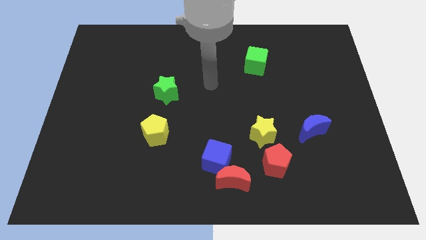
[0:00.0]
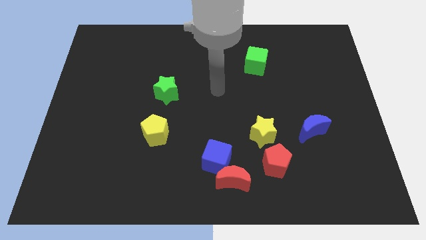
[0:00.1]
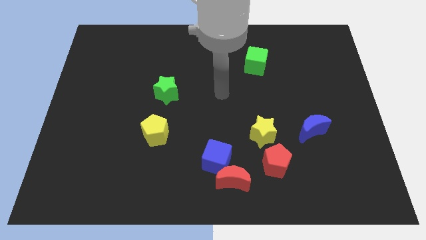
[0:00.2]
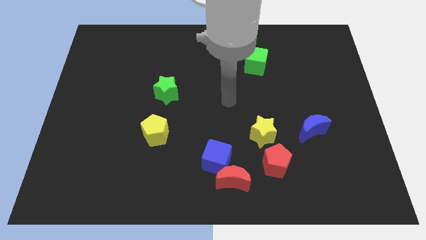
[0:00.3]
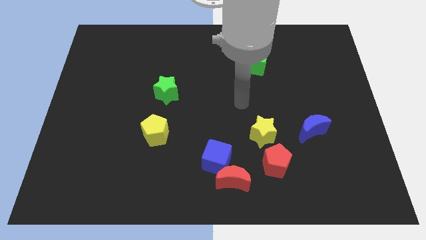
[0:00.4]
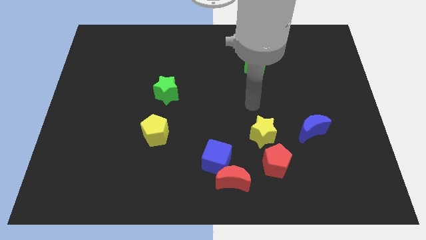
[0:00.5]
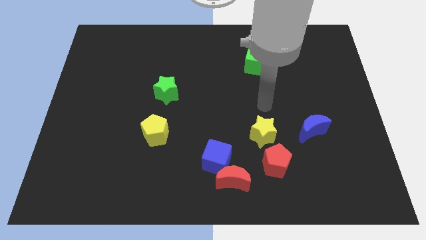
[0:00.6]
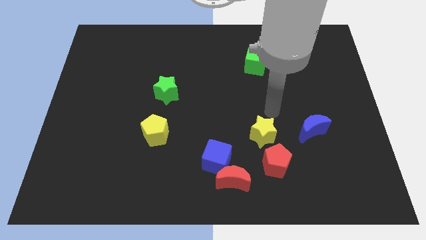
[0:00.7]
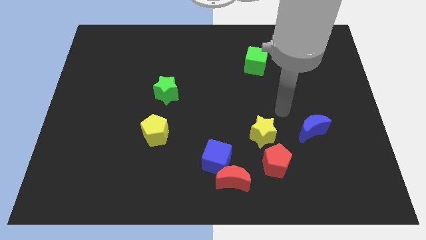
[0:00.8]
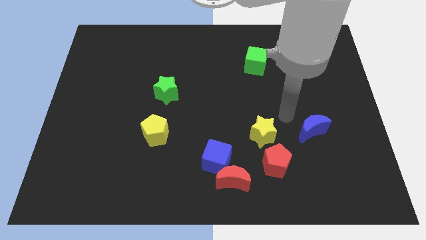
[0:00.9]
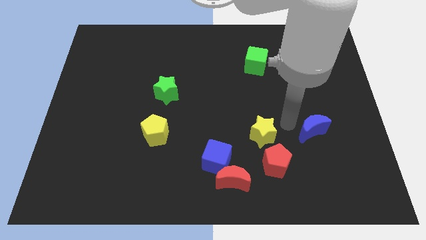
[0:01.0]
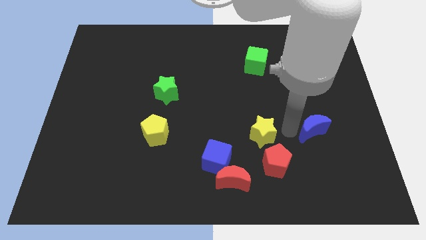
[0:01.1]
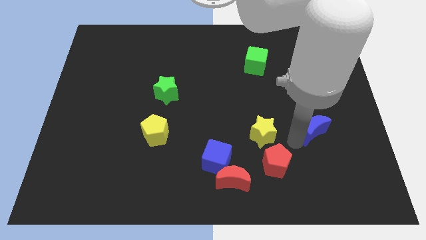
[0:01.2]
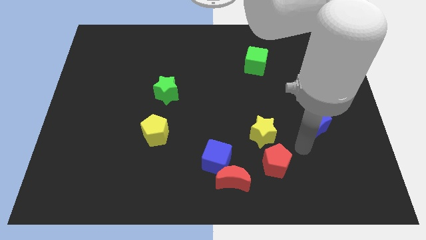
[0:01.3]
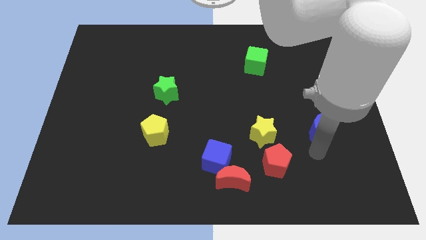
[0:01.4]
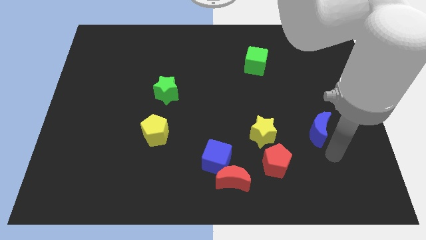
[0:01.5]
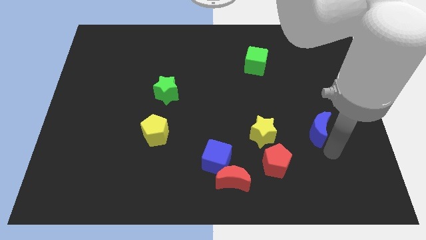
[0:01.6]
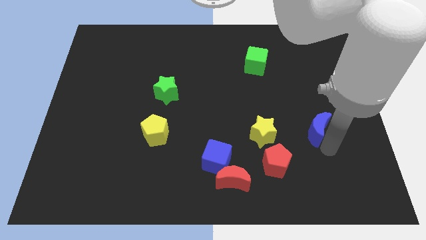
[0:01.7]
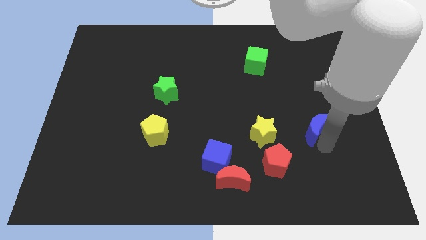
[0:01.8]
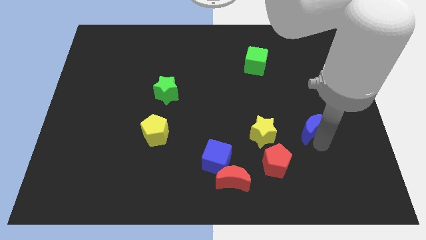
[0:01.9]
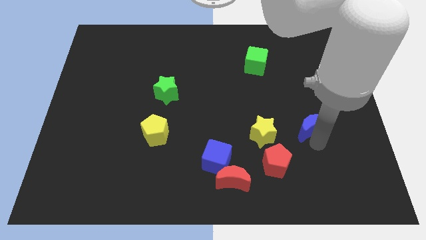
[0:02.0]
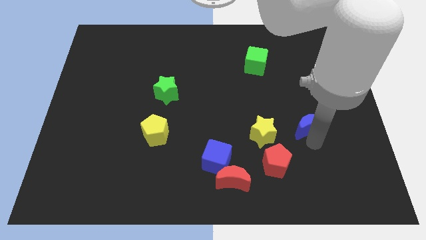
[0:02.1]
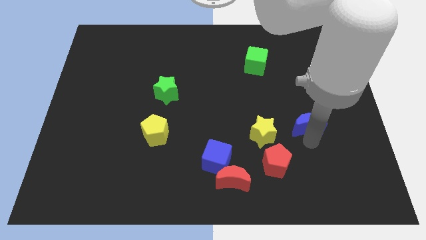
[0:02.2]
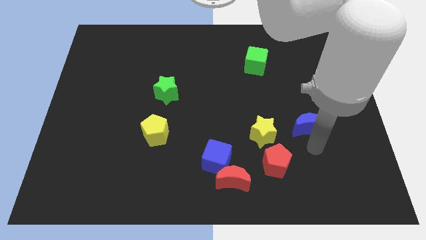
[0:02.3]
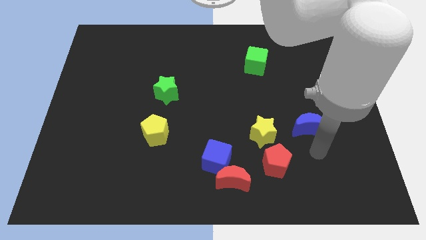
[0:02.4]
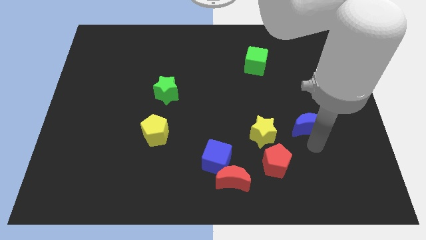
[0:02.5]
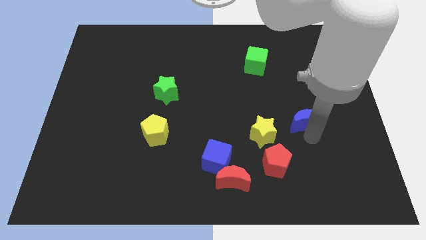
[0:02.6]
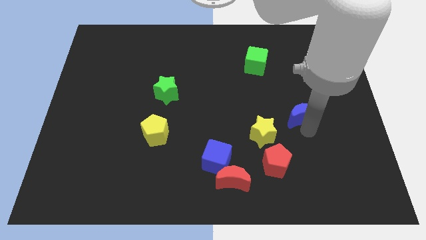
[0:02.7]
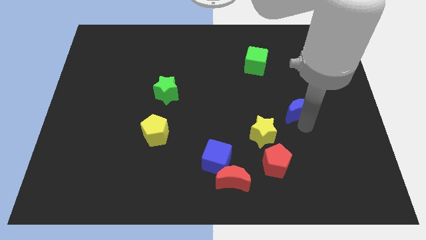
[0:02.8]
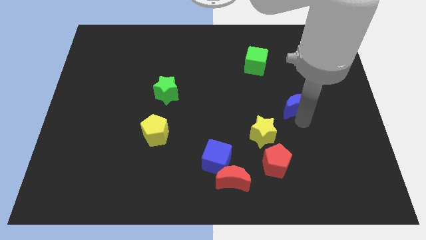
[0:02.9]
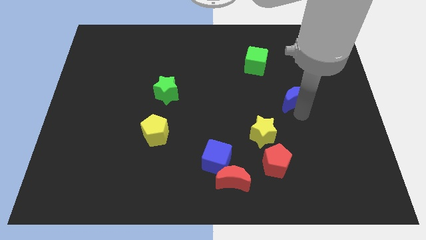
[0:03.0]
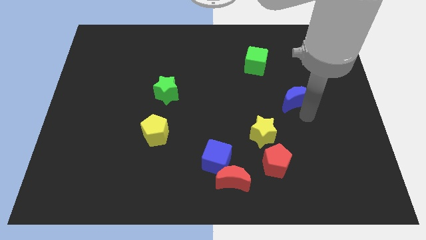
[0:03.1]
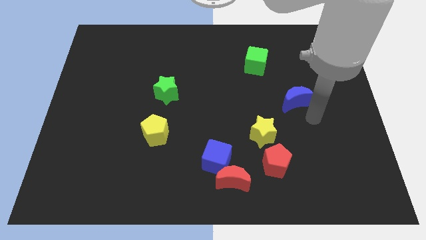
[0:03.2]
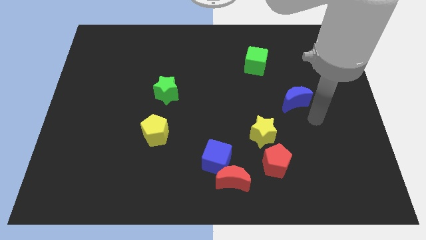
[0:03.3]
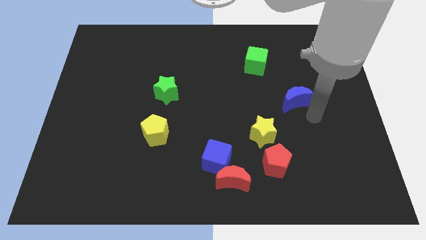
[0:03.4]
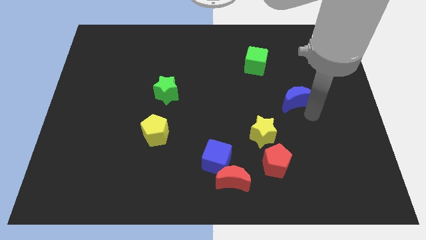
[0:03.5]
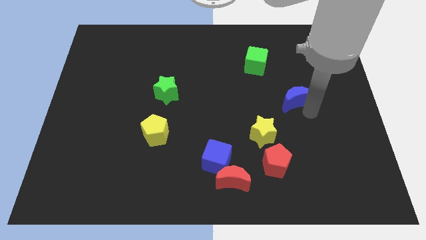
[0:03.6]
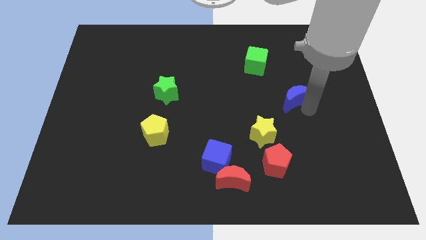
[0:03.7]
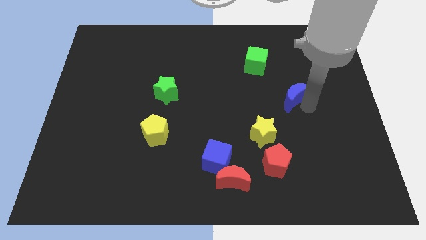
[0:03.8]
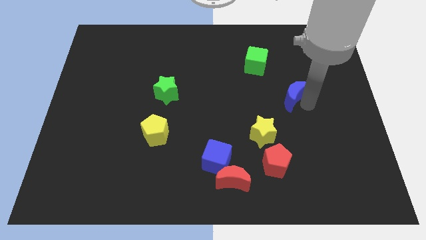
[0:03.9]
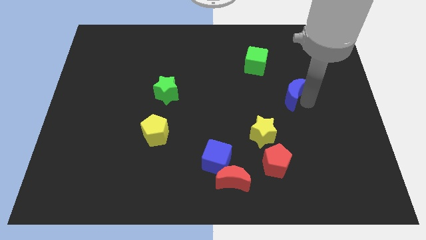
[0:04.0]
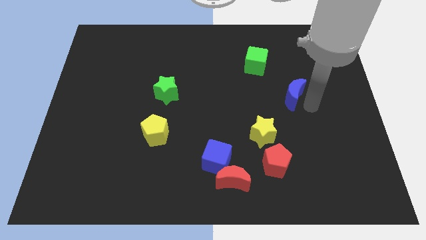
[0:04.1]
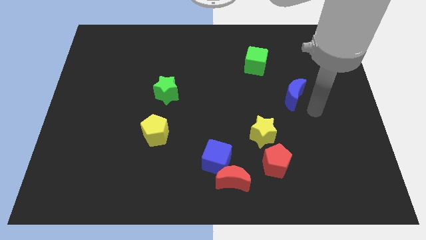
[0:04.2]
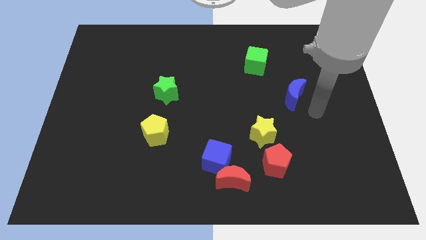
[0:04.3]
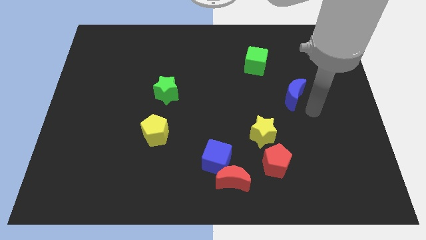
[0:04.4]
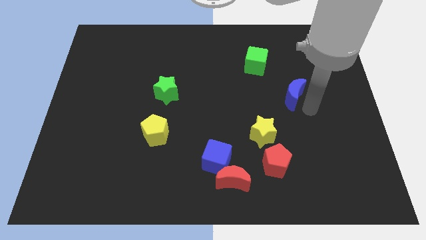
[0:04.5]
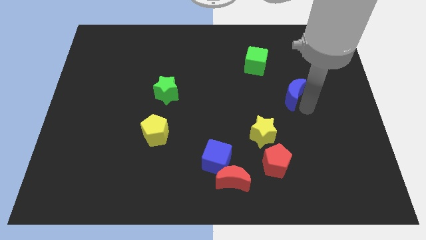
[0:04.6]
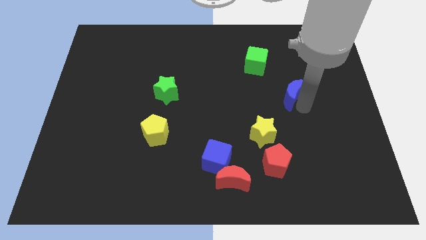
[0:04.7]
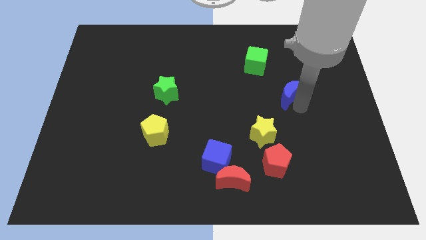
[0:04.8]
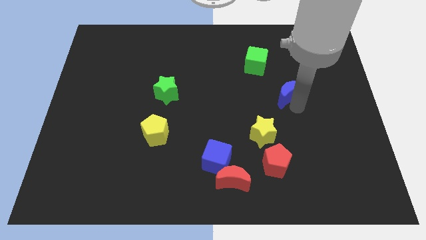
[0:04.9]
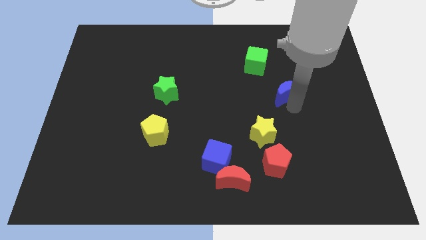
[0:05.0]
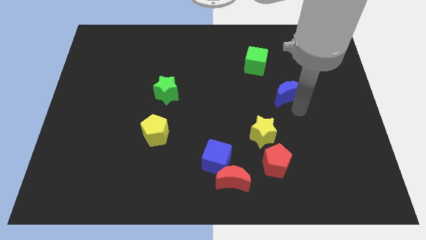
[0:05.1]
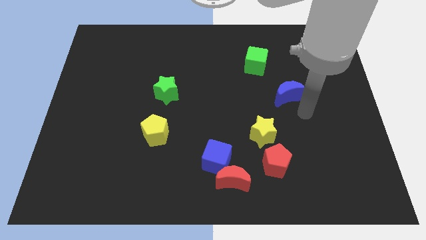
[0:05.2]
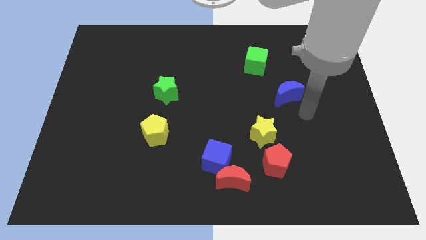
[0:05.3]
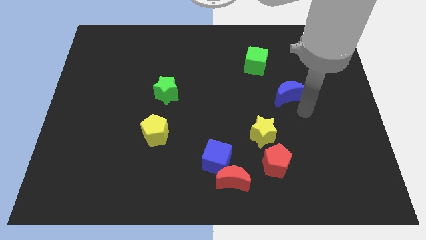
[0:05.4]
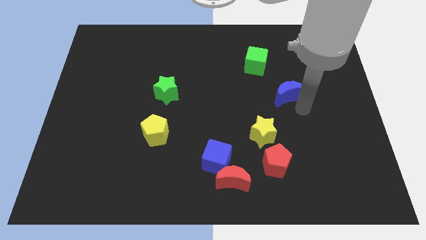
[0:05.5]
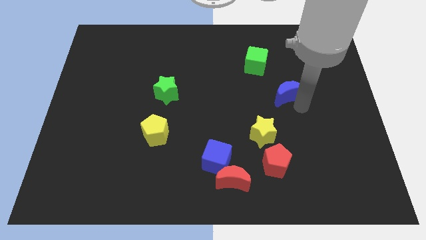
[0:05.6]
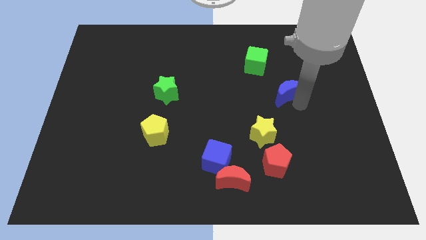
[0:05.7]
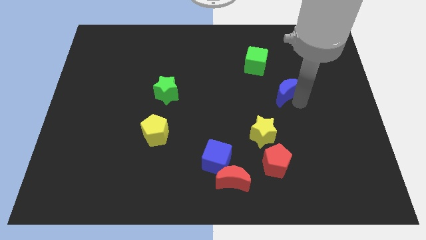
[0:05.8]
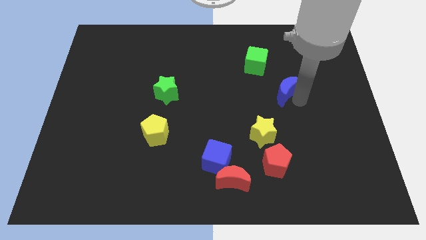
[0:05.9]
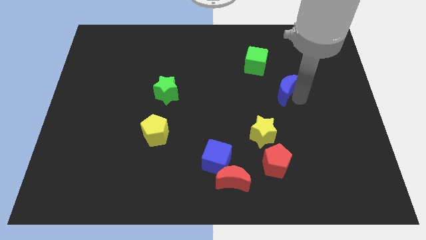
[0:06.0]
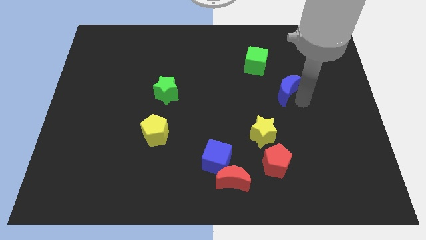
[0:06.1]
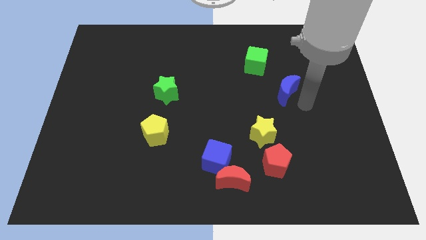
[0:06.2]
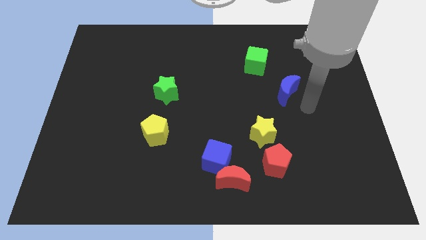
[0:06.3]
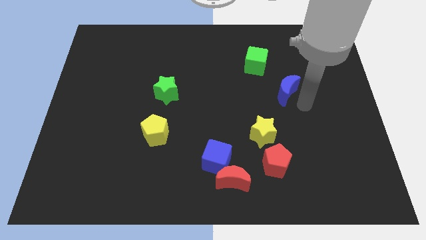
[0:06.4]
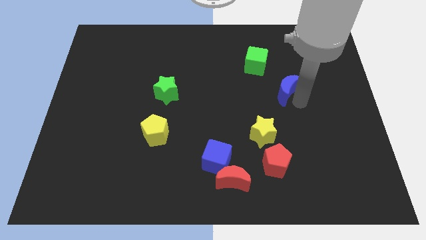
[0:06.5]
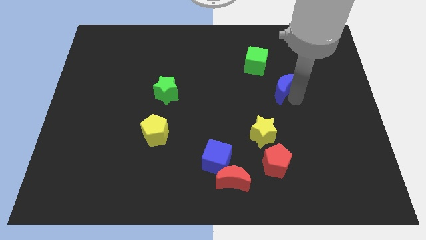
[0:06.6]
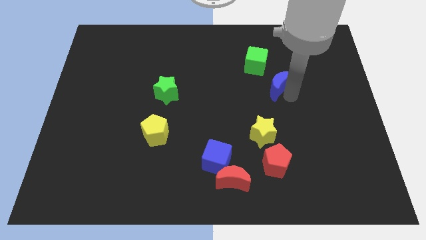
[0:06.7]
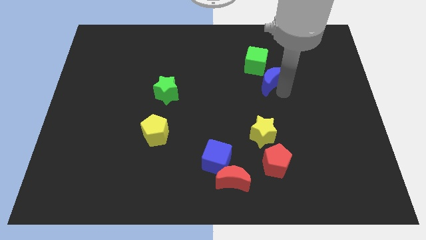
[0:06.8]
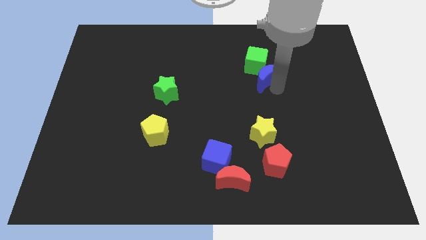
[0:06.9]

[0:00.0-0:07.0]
move the blue moon to the green cube
